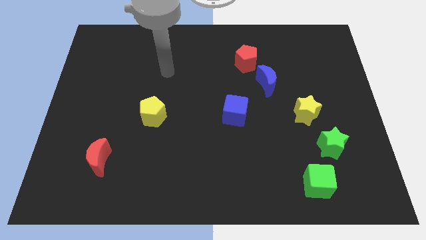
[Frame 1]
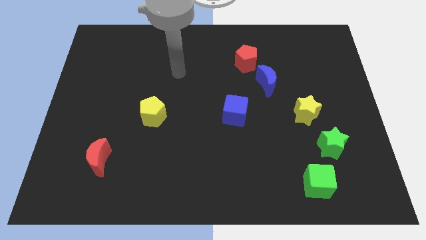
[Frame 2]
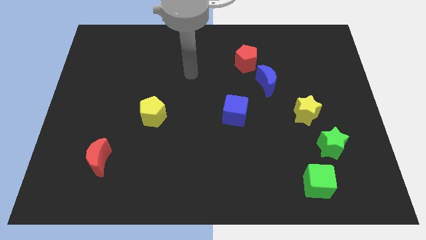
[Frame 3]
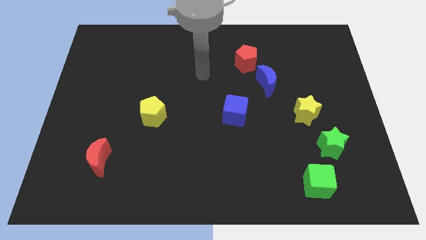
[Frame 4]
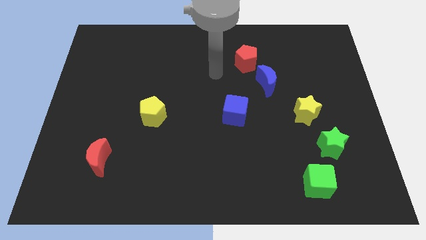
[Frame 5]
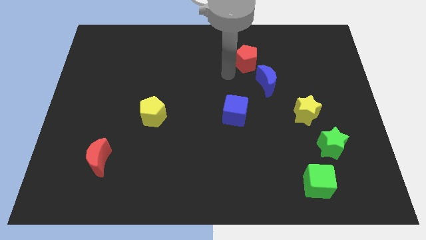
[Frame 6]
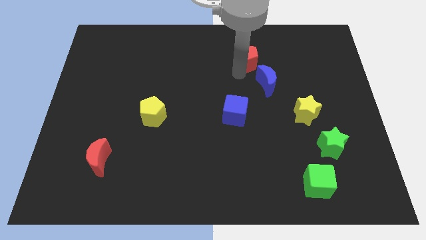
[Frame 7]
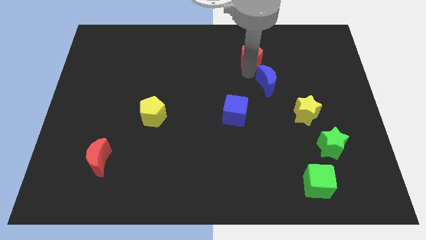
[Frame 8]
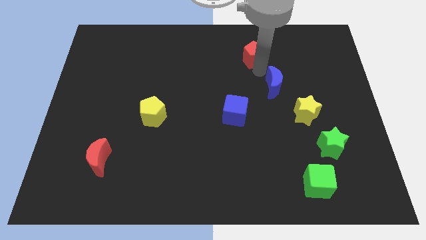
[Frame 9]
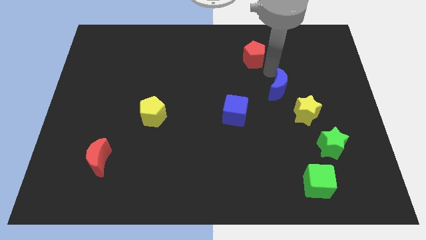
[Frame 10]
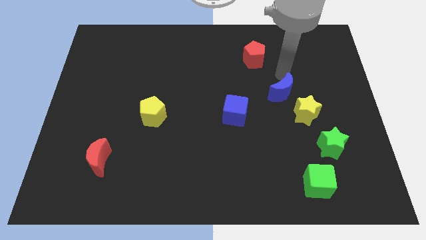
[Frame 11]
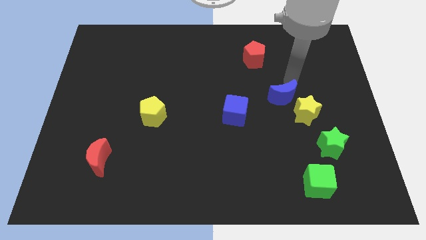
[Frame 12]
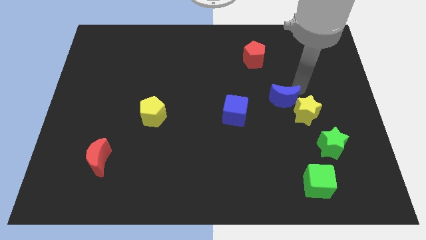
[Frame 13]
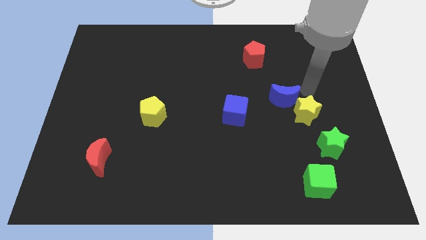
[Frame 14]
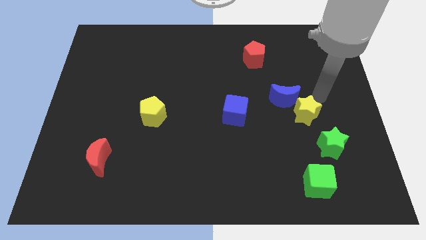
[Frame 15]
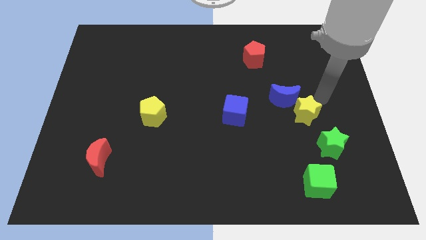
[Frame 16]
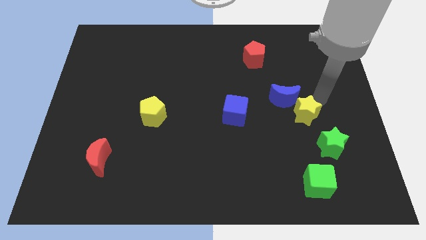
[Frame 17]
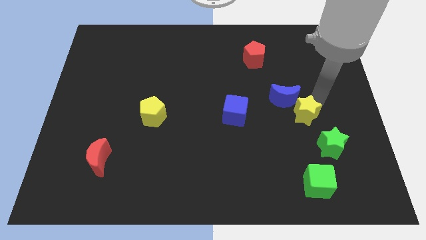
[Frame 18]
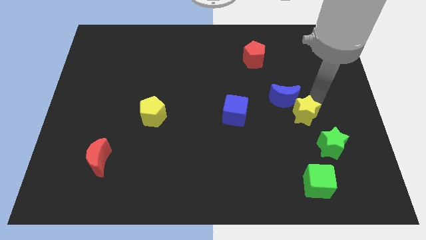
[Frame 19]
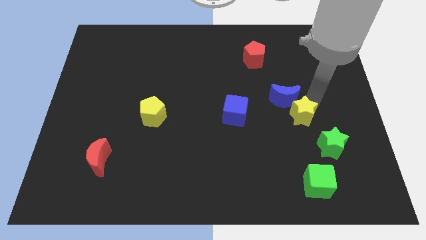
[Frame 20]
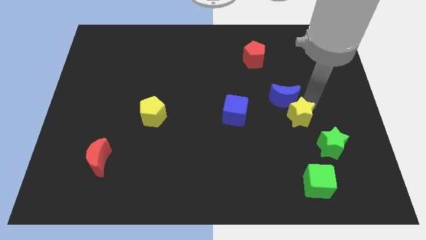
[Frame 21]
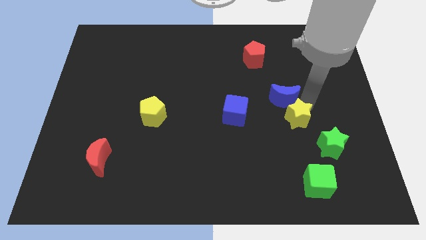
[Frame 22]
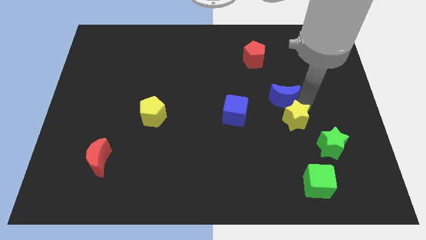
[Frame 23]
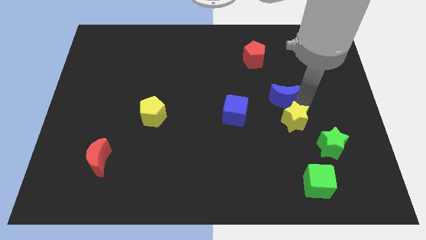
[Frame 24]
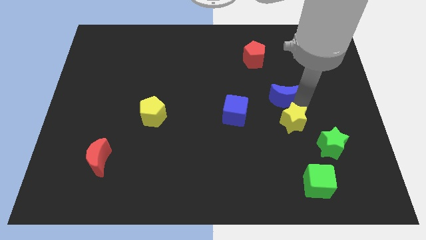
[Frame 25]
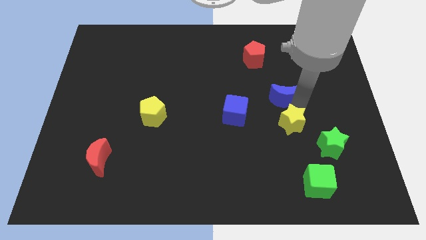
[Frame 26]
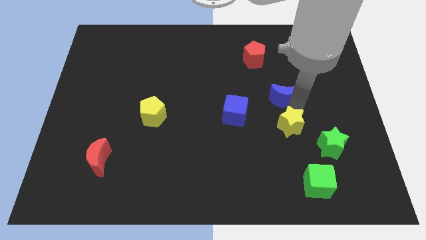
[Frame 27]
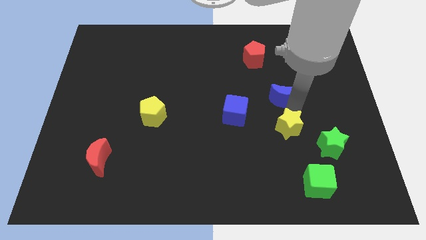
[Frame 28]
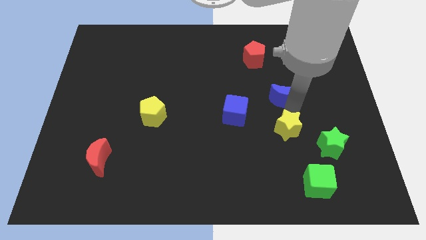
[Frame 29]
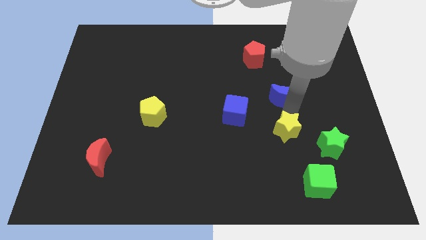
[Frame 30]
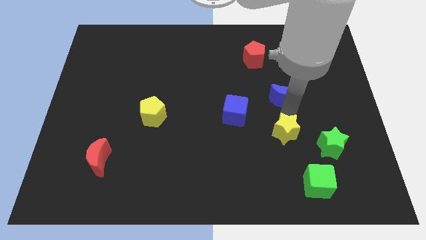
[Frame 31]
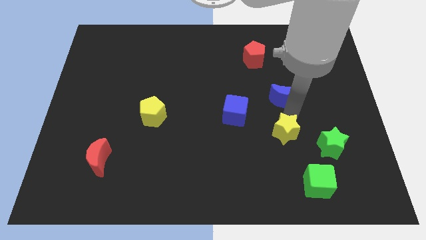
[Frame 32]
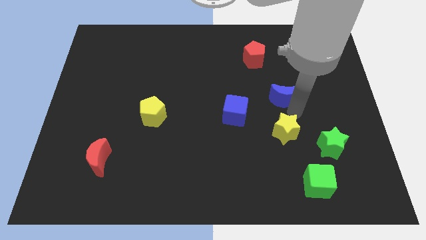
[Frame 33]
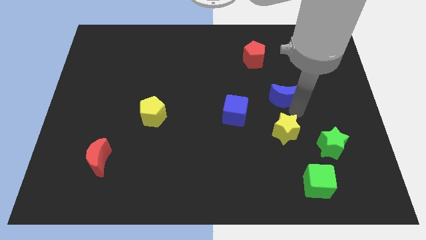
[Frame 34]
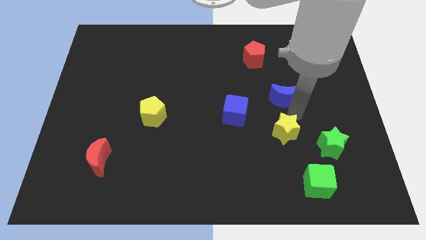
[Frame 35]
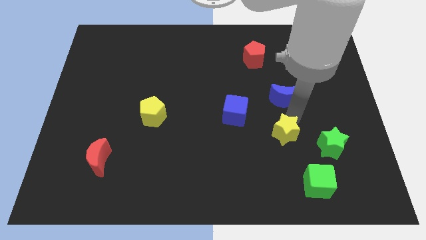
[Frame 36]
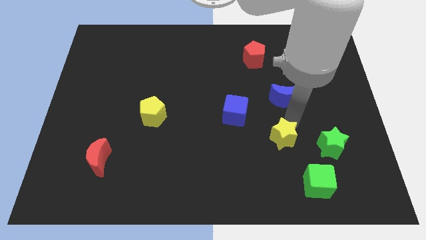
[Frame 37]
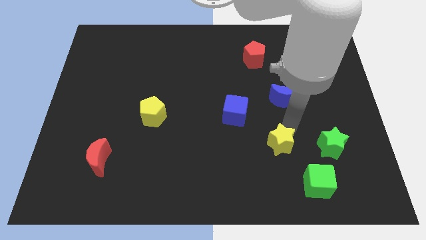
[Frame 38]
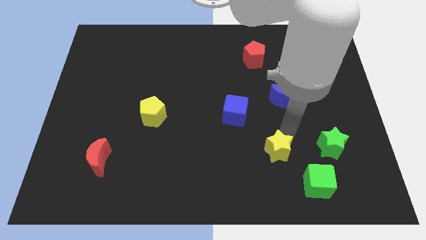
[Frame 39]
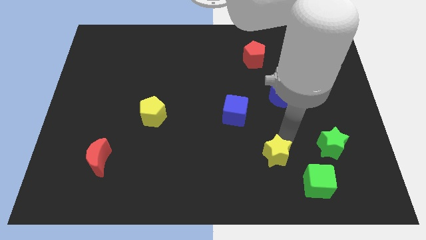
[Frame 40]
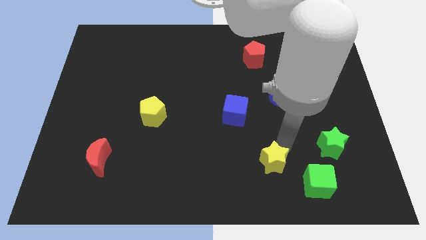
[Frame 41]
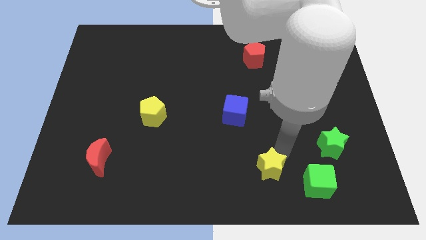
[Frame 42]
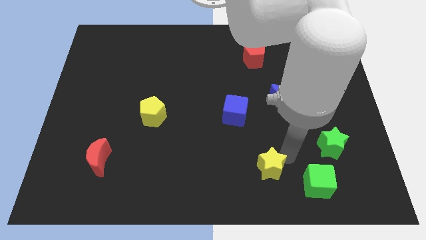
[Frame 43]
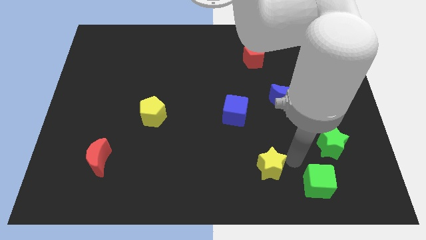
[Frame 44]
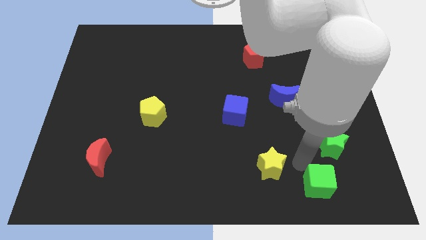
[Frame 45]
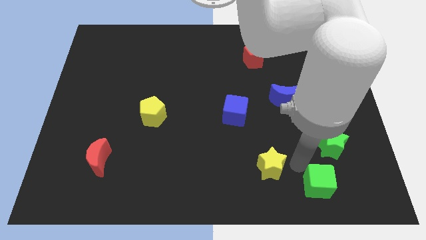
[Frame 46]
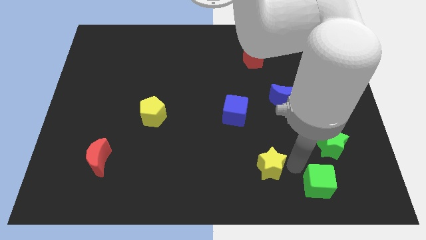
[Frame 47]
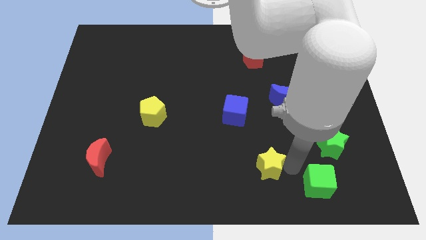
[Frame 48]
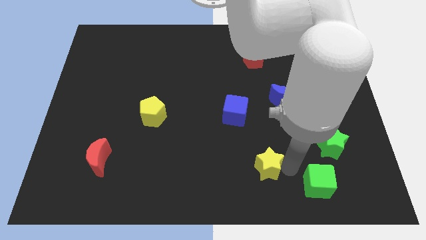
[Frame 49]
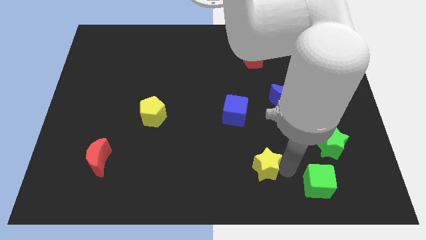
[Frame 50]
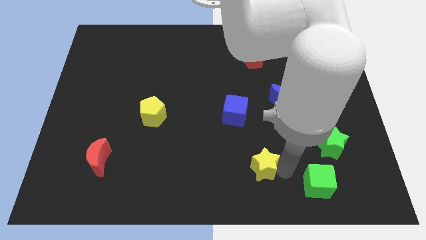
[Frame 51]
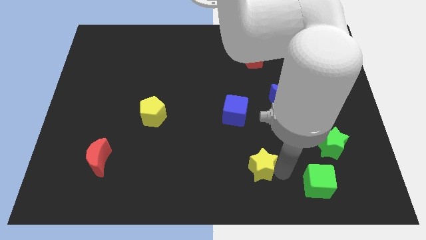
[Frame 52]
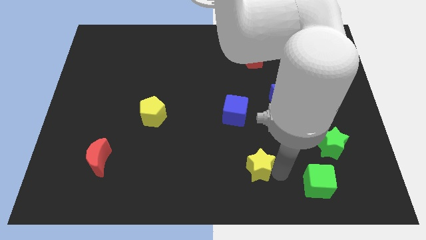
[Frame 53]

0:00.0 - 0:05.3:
slide the yellow star to the bottom

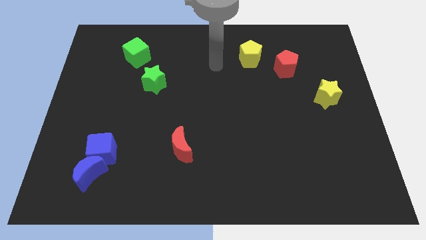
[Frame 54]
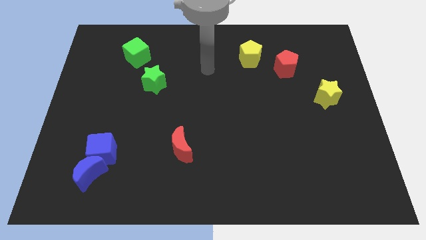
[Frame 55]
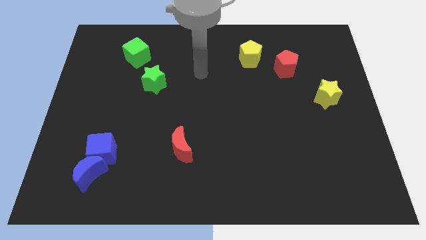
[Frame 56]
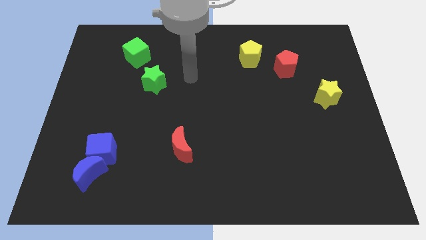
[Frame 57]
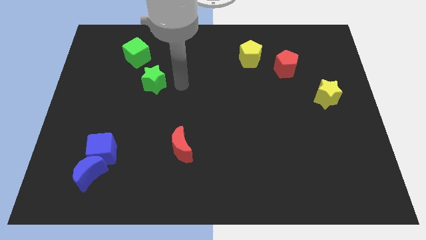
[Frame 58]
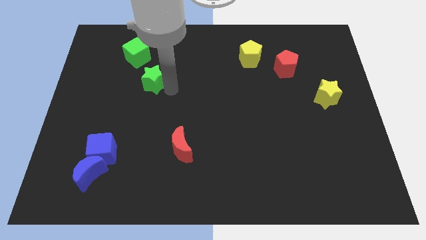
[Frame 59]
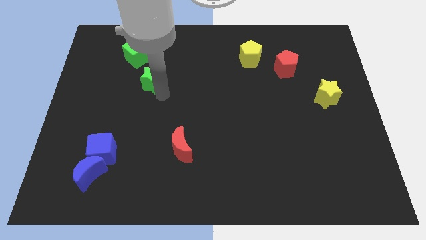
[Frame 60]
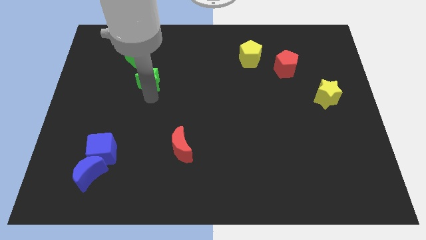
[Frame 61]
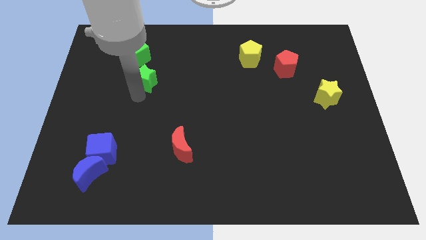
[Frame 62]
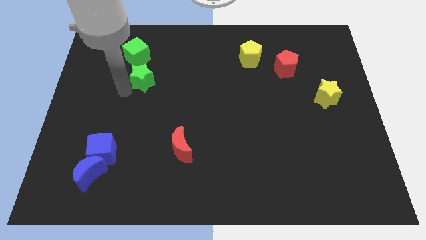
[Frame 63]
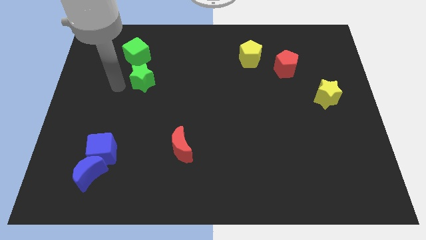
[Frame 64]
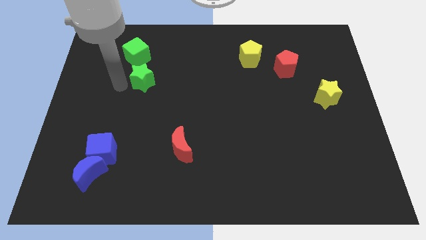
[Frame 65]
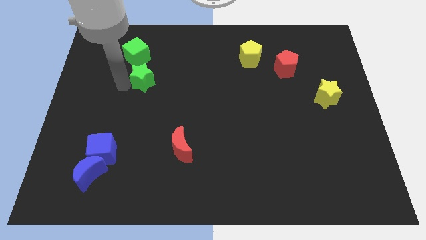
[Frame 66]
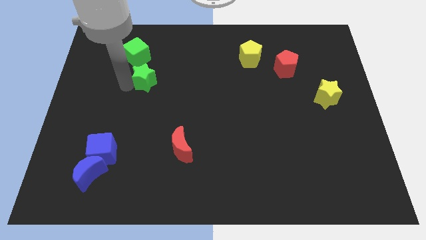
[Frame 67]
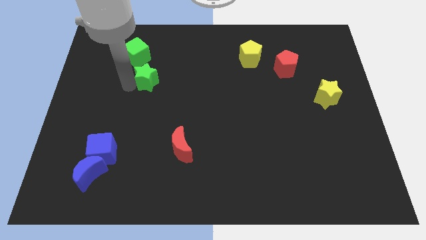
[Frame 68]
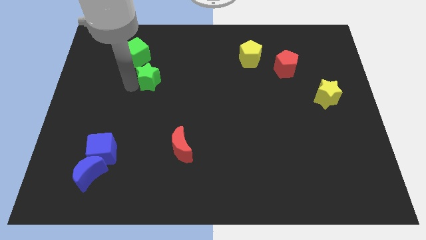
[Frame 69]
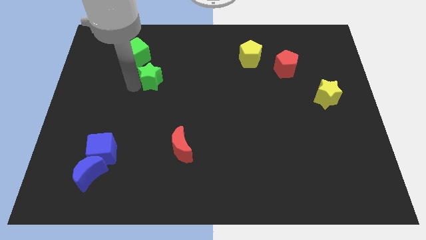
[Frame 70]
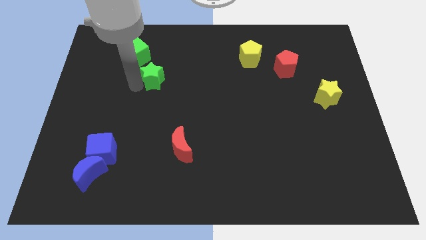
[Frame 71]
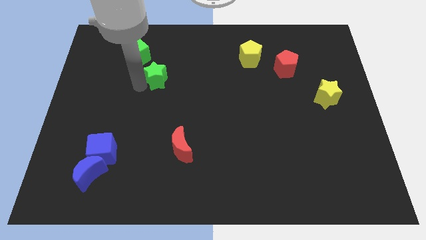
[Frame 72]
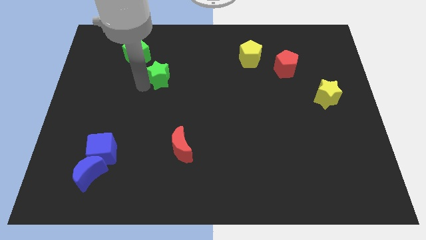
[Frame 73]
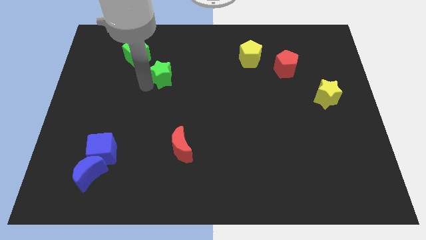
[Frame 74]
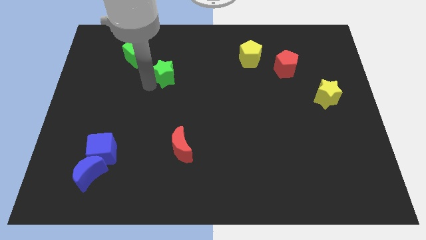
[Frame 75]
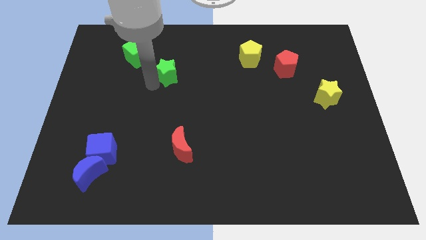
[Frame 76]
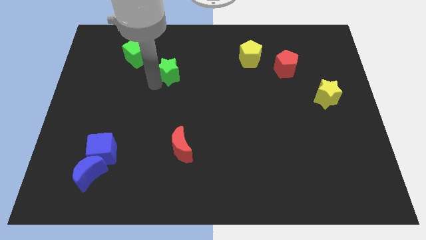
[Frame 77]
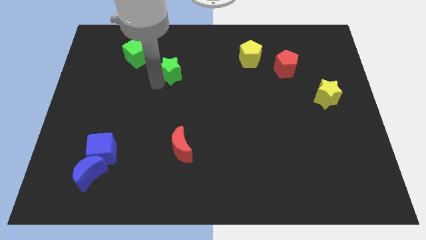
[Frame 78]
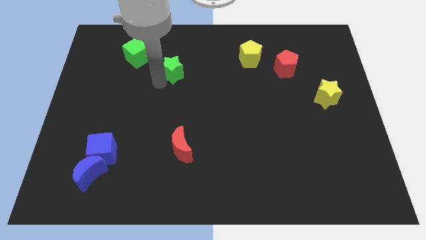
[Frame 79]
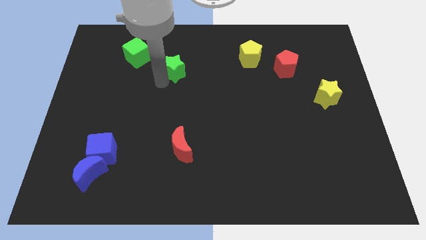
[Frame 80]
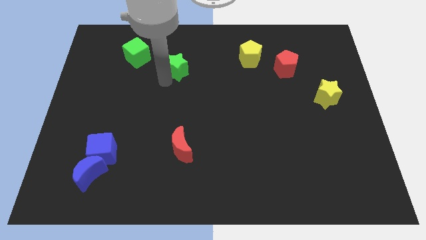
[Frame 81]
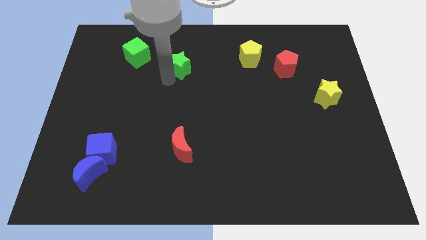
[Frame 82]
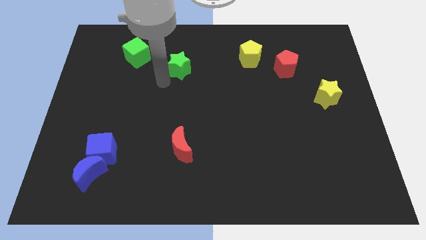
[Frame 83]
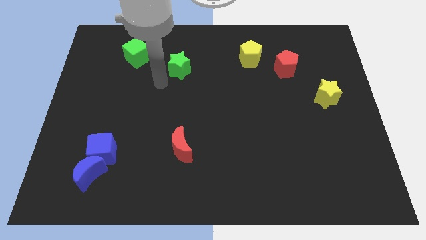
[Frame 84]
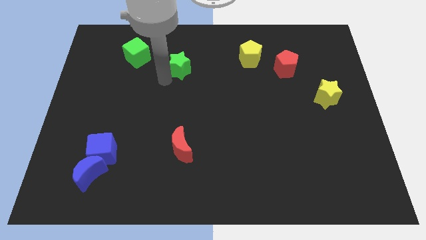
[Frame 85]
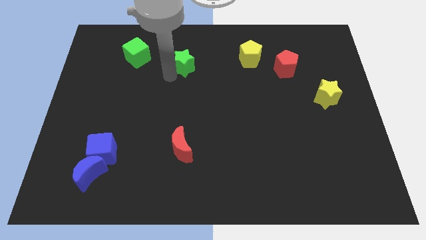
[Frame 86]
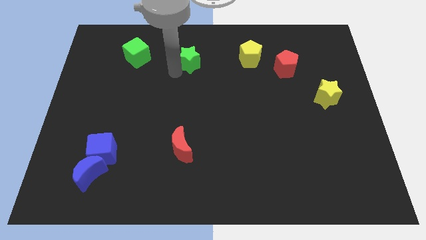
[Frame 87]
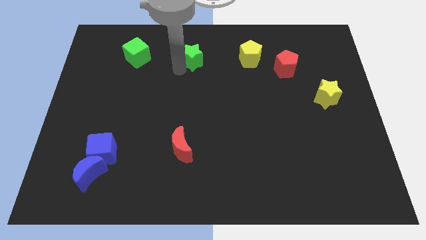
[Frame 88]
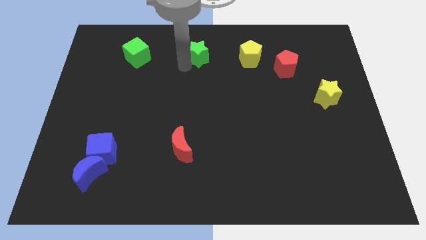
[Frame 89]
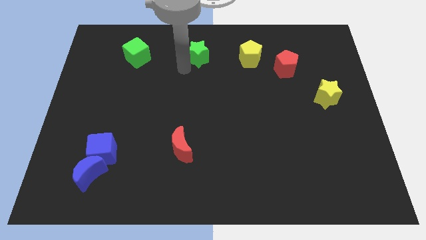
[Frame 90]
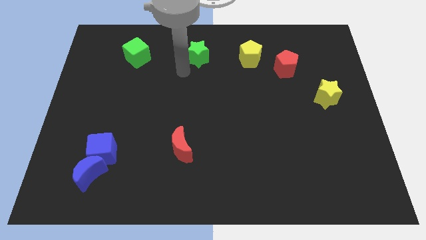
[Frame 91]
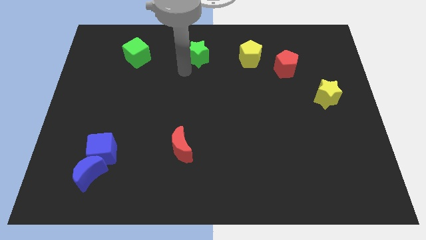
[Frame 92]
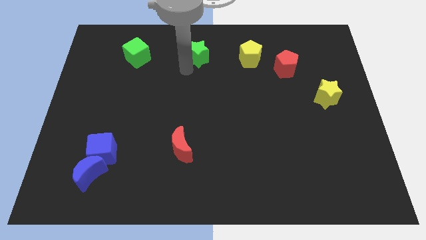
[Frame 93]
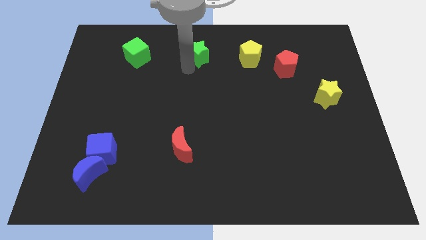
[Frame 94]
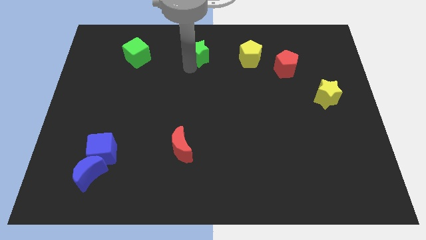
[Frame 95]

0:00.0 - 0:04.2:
slide the green star to the top
